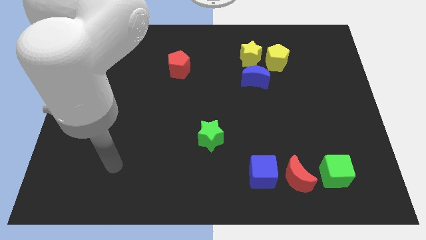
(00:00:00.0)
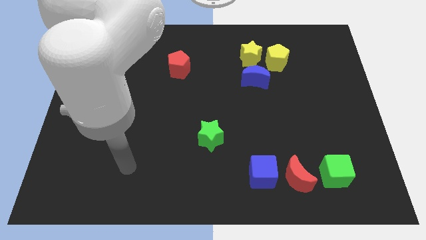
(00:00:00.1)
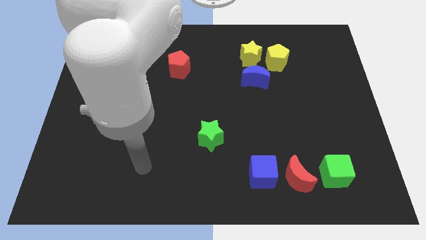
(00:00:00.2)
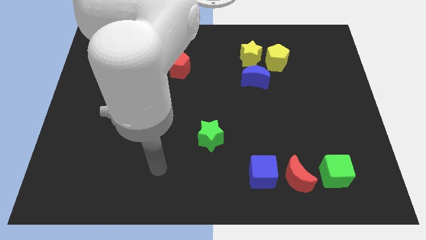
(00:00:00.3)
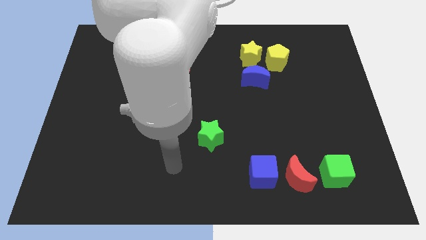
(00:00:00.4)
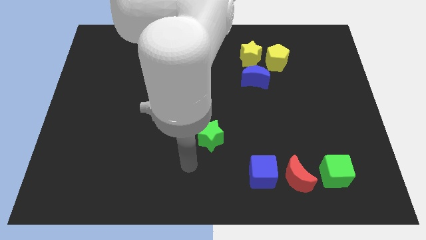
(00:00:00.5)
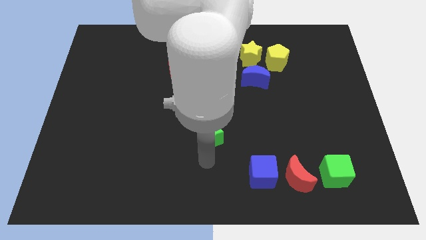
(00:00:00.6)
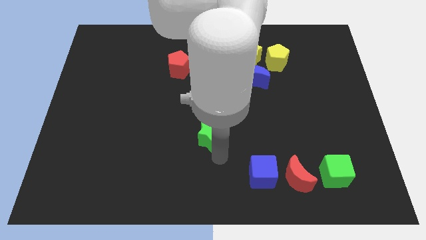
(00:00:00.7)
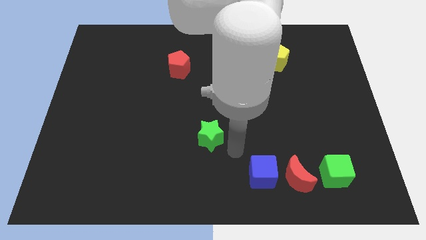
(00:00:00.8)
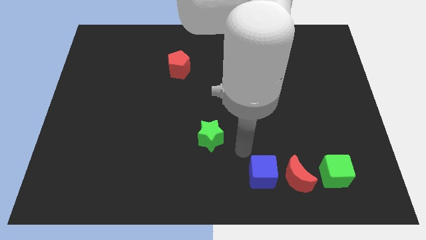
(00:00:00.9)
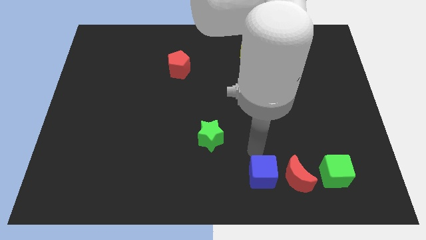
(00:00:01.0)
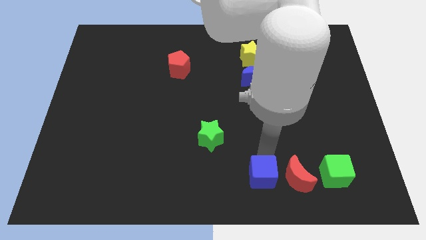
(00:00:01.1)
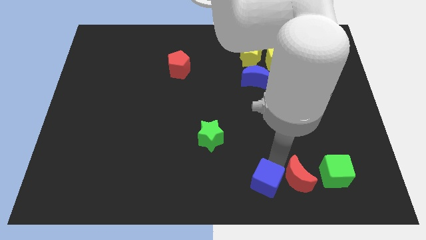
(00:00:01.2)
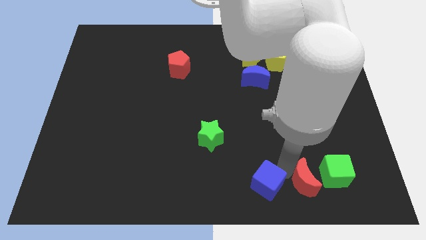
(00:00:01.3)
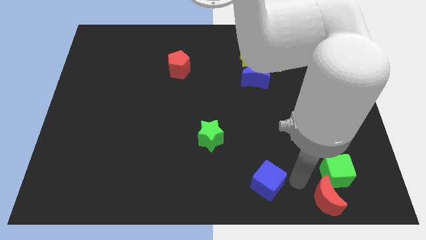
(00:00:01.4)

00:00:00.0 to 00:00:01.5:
move the blue cube away from the red moon

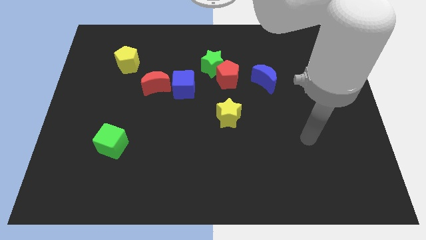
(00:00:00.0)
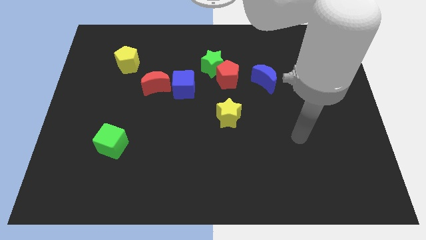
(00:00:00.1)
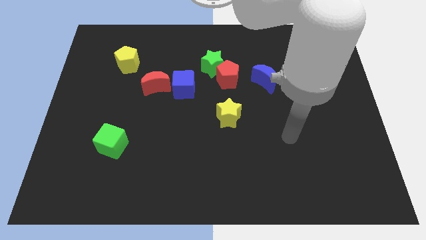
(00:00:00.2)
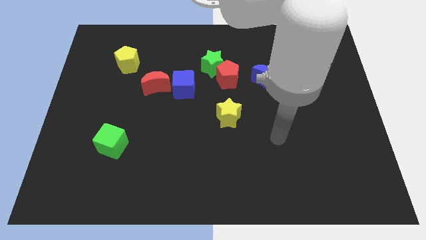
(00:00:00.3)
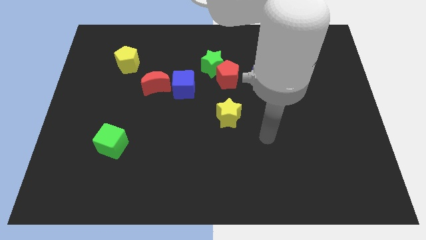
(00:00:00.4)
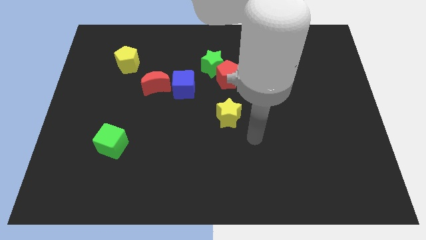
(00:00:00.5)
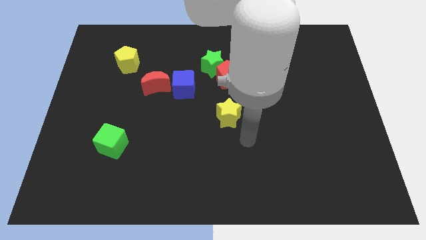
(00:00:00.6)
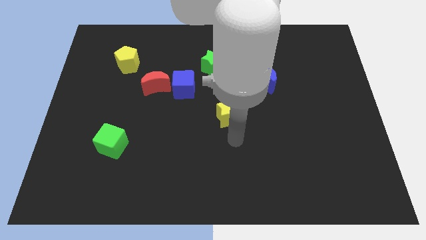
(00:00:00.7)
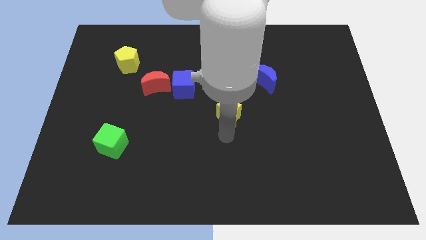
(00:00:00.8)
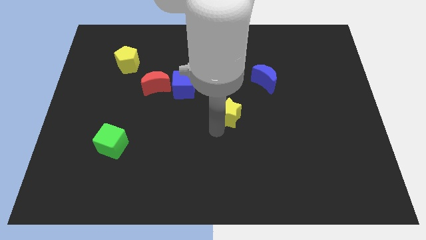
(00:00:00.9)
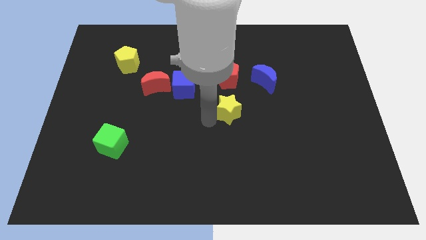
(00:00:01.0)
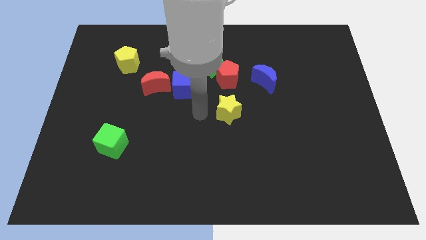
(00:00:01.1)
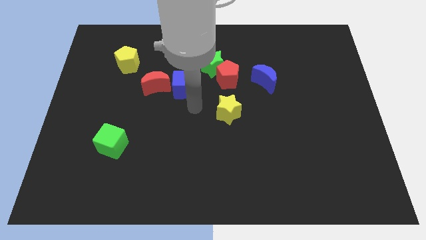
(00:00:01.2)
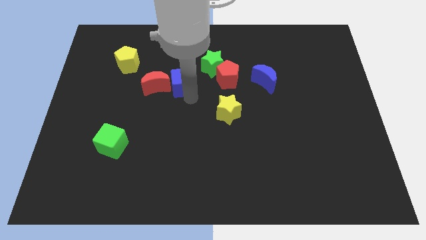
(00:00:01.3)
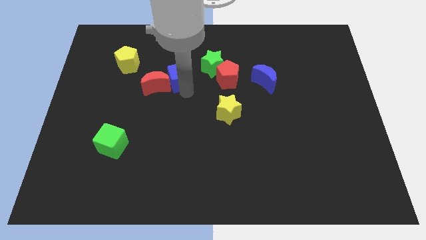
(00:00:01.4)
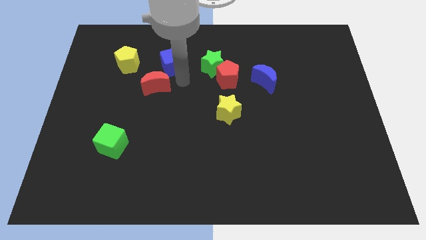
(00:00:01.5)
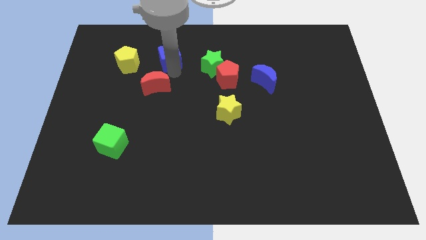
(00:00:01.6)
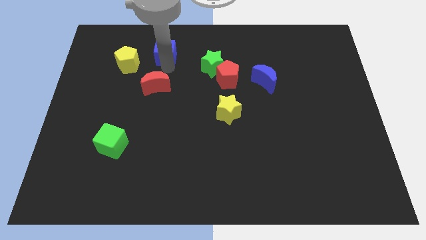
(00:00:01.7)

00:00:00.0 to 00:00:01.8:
separate the red moon from the blue cube

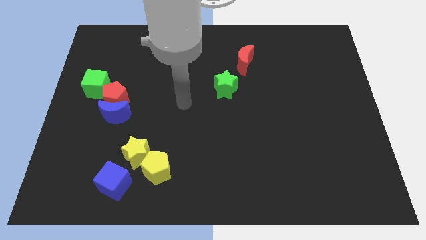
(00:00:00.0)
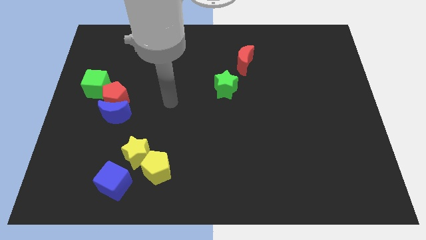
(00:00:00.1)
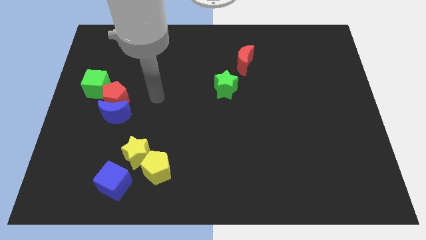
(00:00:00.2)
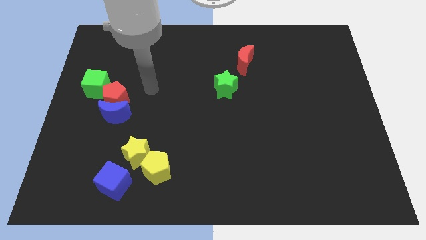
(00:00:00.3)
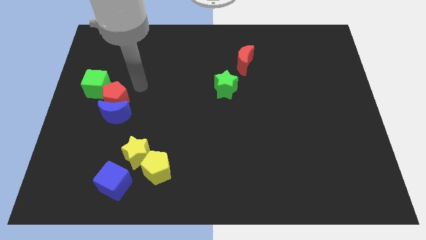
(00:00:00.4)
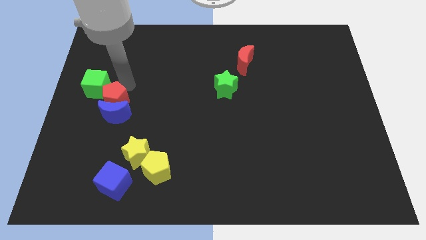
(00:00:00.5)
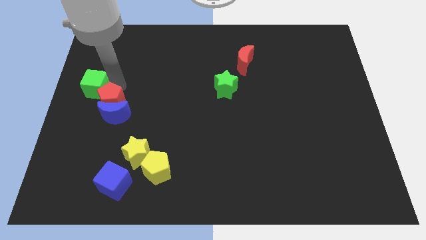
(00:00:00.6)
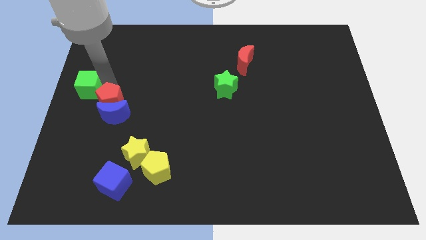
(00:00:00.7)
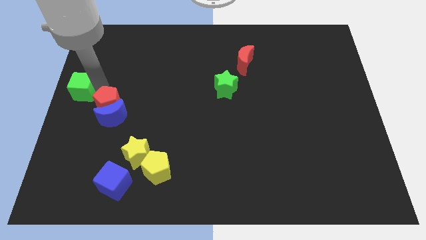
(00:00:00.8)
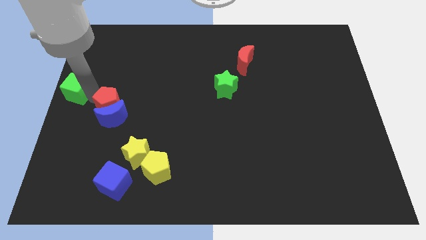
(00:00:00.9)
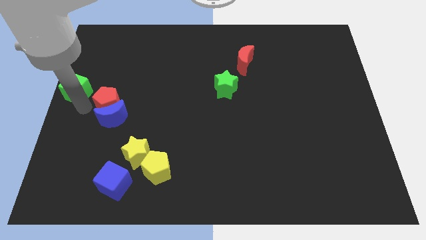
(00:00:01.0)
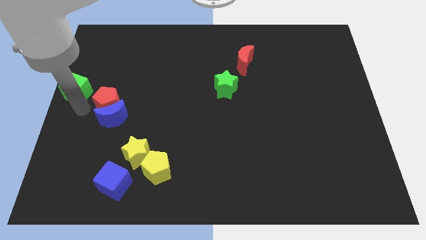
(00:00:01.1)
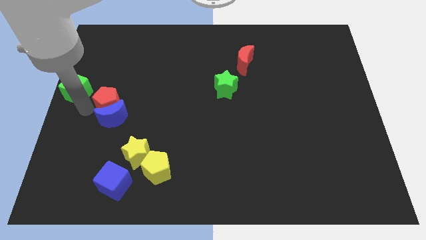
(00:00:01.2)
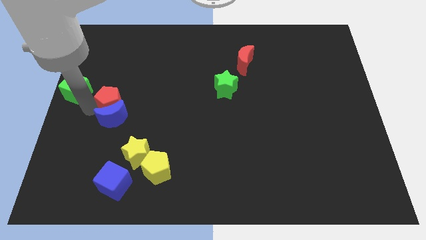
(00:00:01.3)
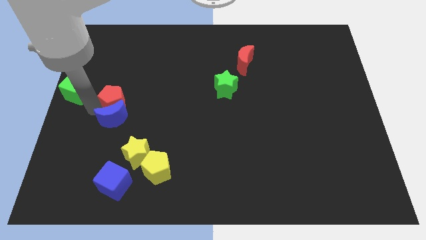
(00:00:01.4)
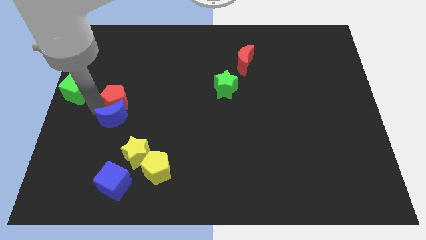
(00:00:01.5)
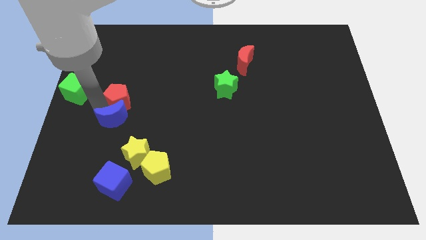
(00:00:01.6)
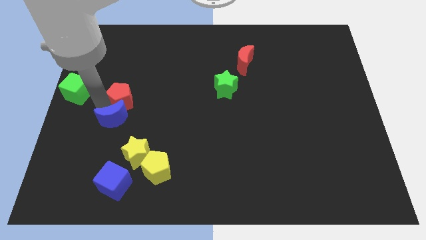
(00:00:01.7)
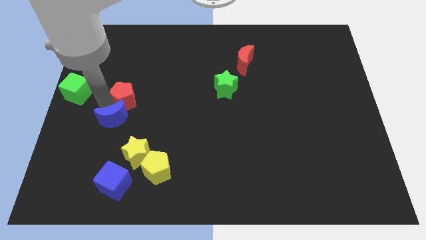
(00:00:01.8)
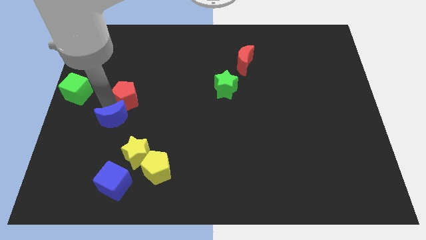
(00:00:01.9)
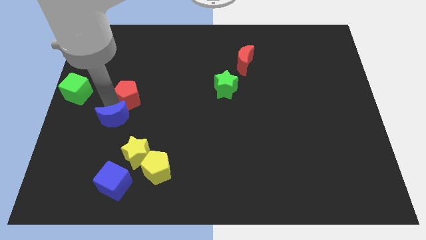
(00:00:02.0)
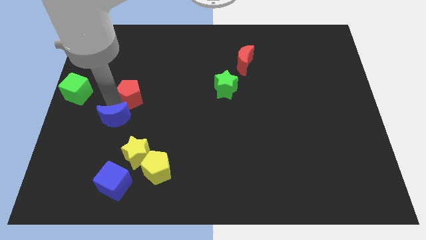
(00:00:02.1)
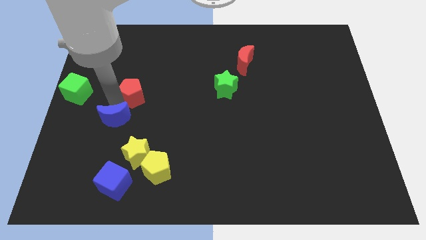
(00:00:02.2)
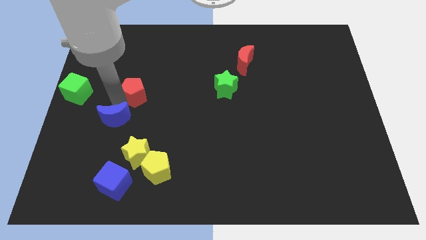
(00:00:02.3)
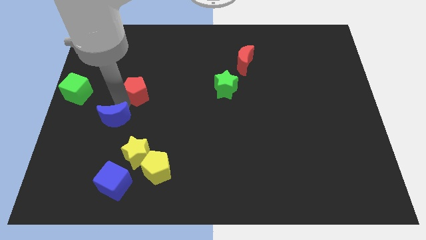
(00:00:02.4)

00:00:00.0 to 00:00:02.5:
separate the red pentagon from the blue moon and green cube

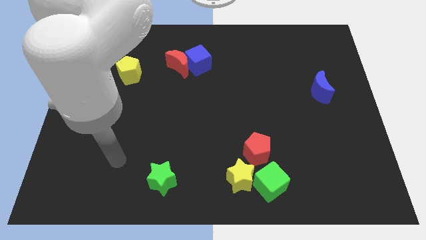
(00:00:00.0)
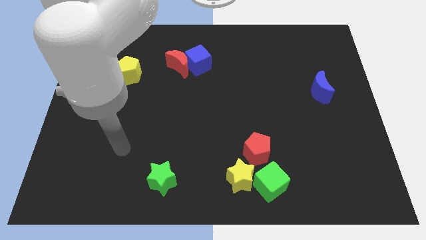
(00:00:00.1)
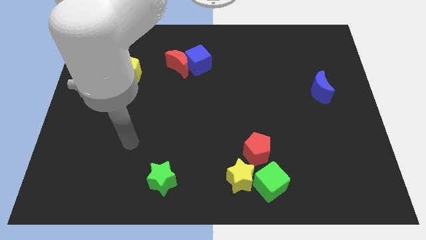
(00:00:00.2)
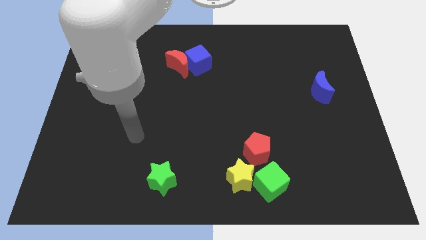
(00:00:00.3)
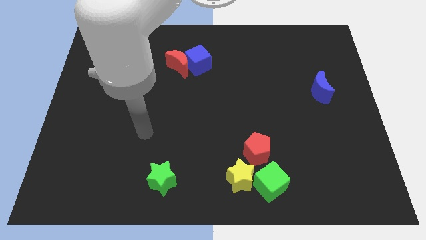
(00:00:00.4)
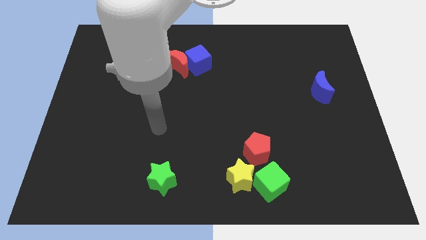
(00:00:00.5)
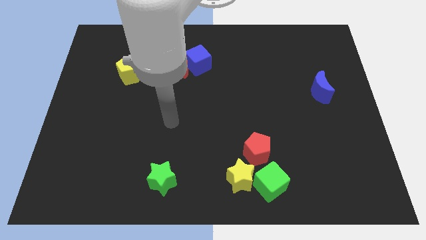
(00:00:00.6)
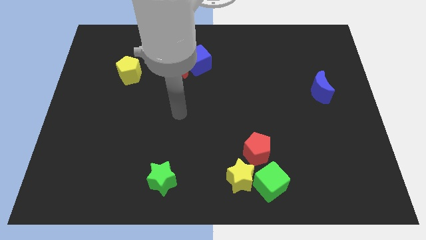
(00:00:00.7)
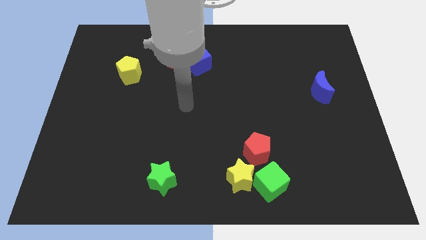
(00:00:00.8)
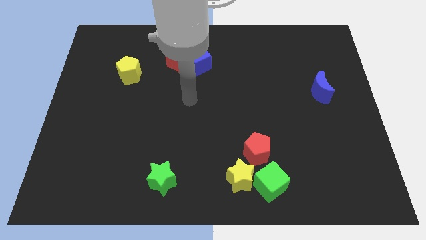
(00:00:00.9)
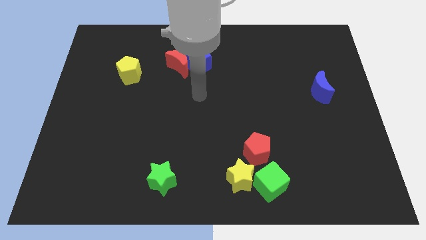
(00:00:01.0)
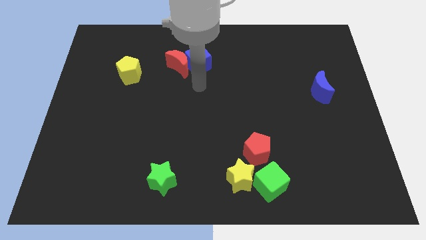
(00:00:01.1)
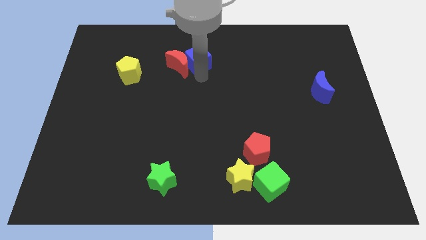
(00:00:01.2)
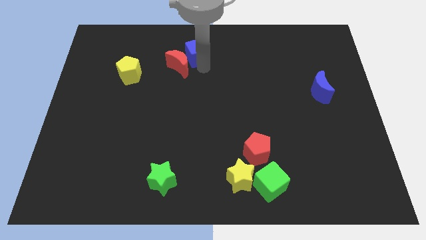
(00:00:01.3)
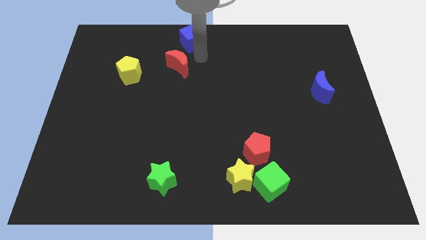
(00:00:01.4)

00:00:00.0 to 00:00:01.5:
pull the red moon apart from the blue cube

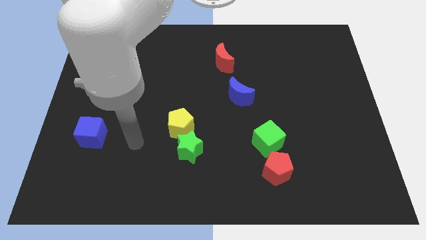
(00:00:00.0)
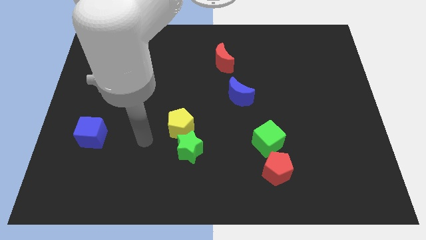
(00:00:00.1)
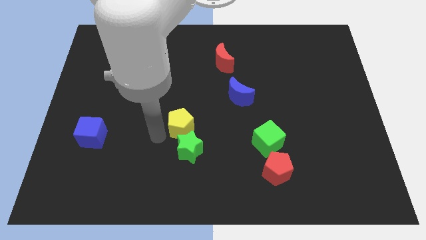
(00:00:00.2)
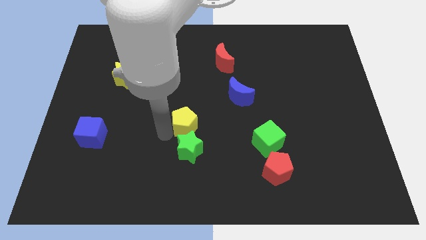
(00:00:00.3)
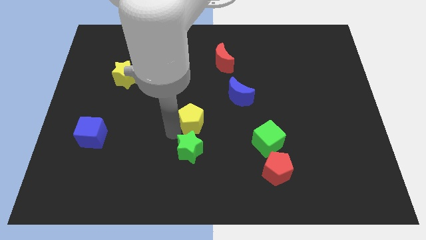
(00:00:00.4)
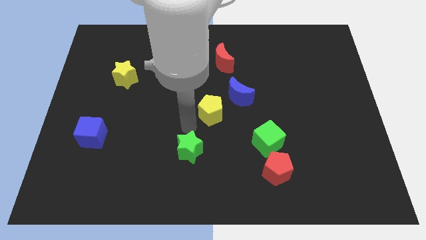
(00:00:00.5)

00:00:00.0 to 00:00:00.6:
pull the green star apart from the yellow pentagon

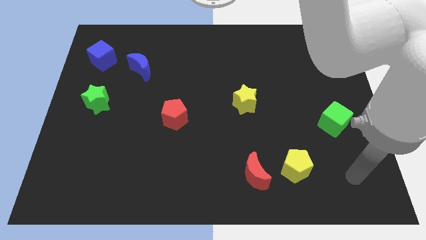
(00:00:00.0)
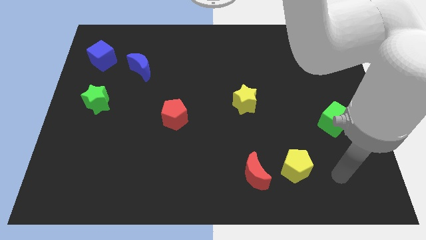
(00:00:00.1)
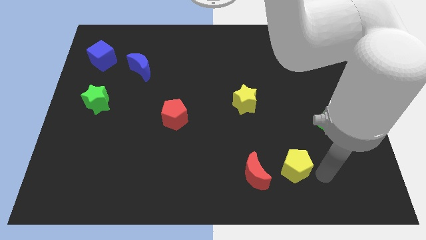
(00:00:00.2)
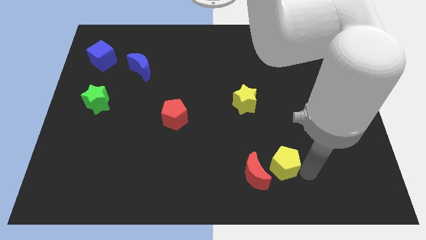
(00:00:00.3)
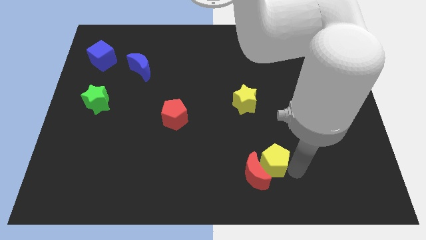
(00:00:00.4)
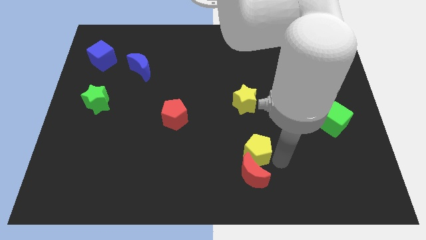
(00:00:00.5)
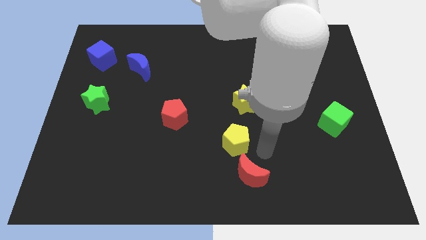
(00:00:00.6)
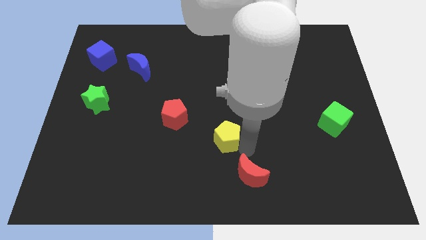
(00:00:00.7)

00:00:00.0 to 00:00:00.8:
pull the red moon apart from the yellow pentagon

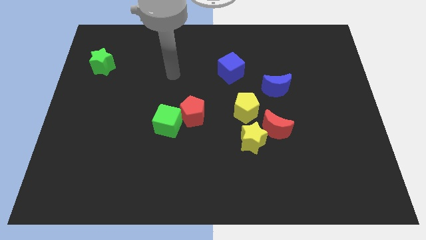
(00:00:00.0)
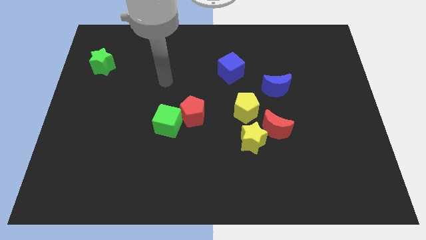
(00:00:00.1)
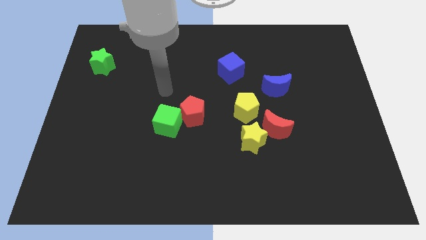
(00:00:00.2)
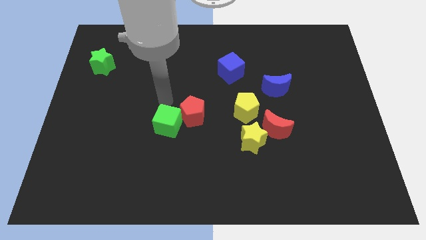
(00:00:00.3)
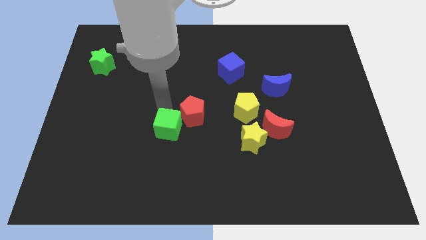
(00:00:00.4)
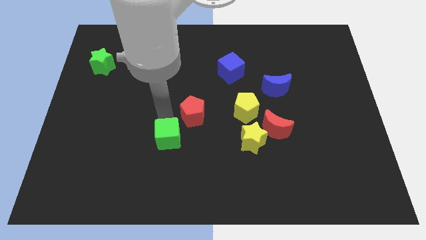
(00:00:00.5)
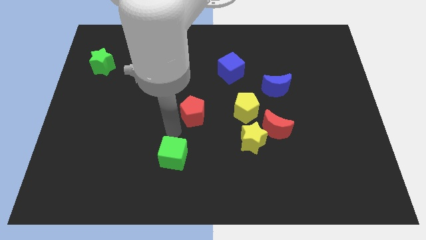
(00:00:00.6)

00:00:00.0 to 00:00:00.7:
pull the red pentagon apart from the green cube

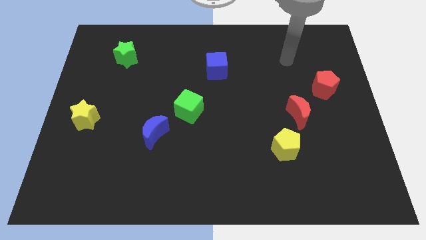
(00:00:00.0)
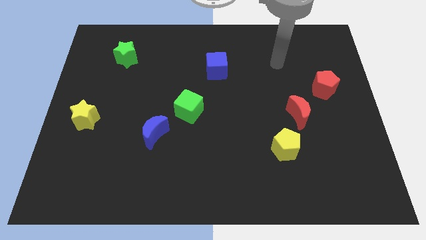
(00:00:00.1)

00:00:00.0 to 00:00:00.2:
move the red moon away from the yellow pentagon
